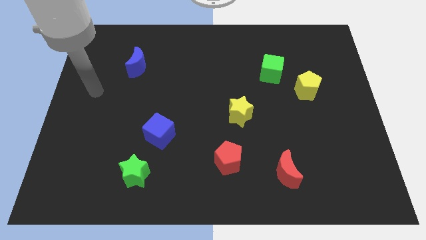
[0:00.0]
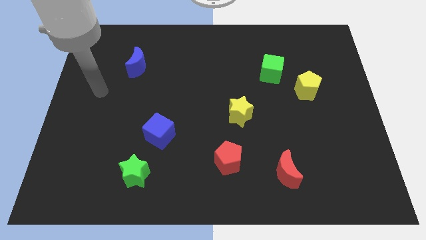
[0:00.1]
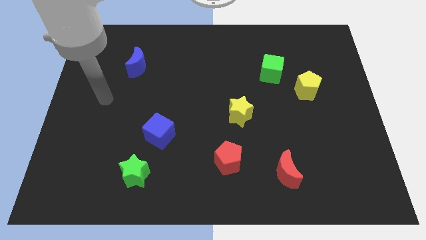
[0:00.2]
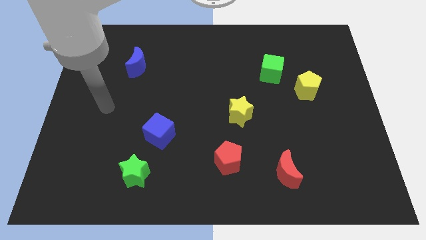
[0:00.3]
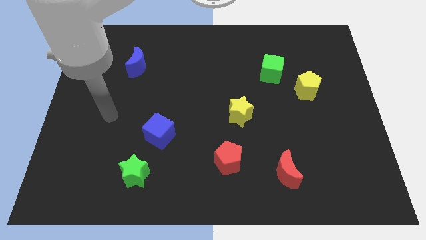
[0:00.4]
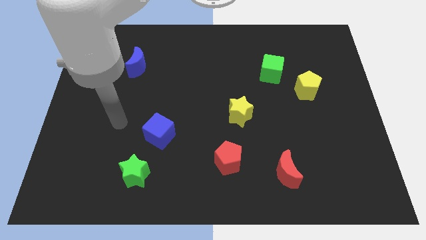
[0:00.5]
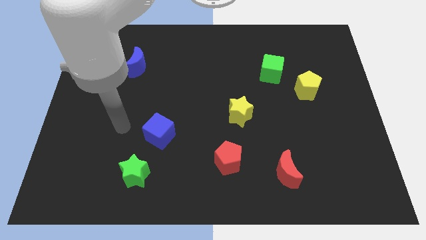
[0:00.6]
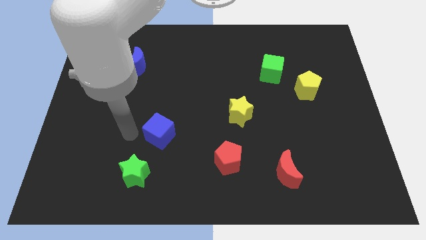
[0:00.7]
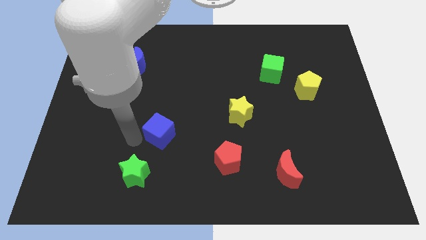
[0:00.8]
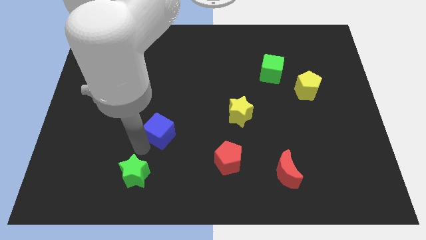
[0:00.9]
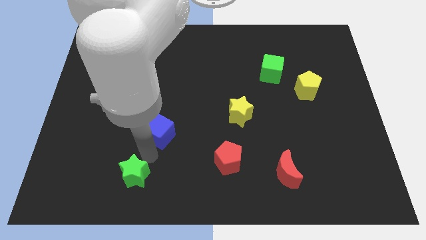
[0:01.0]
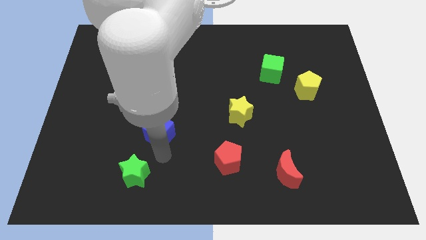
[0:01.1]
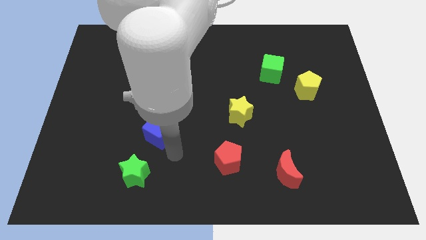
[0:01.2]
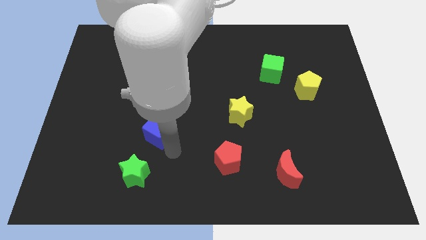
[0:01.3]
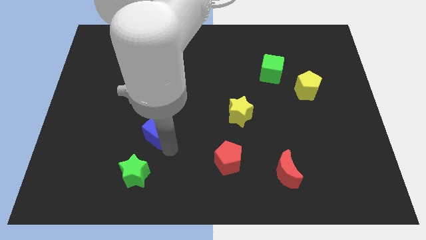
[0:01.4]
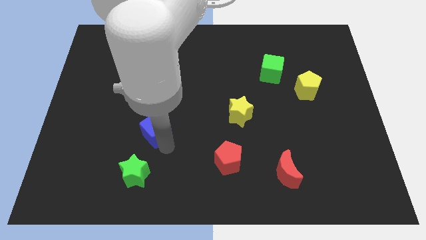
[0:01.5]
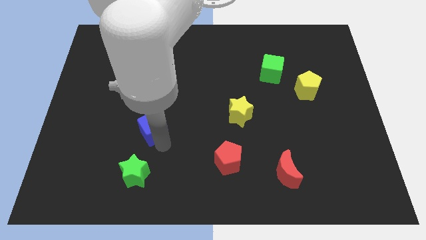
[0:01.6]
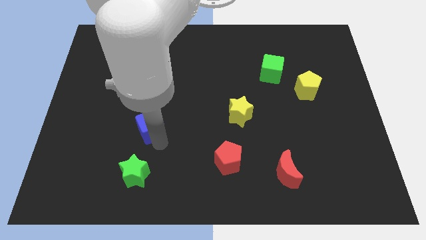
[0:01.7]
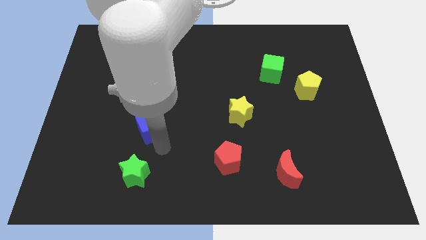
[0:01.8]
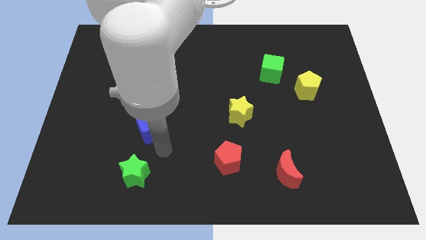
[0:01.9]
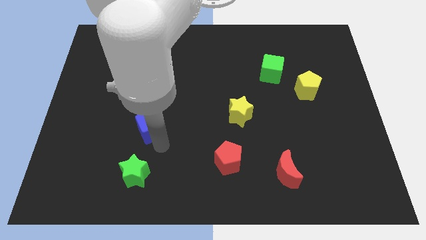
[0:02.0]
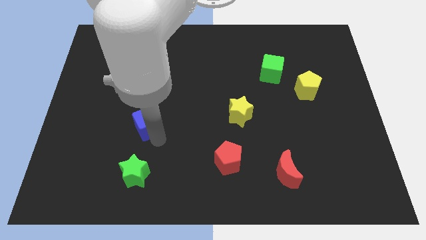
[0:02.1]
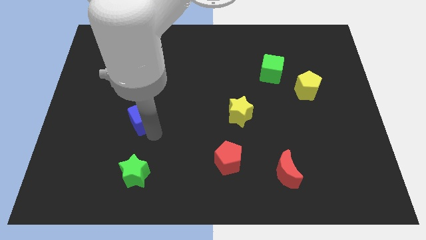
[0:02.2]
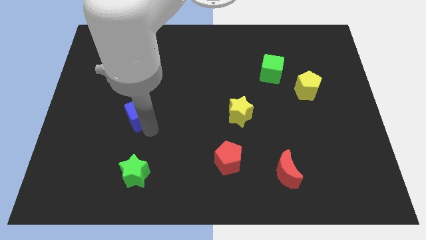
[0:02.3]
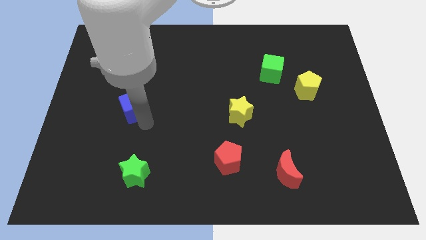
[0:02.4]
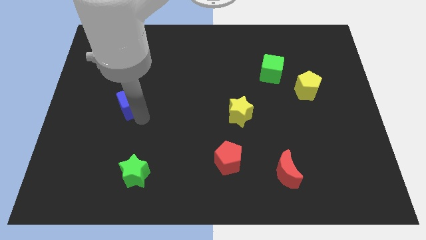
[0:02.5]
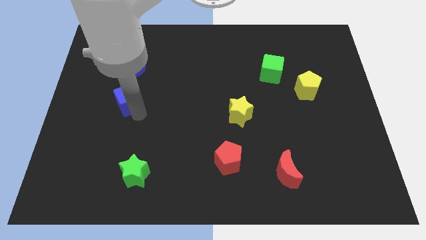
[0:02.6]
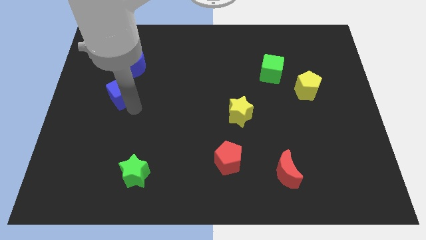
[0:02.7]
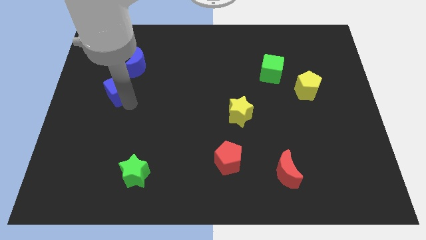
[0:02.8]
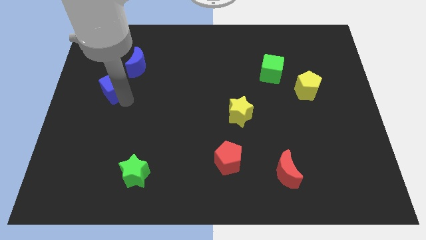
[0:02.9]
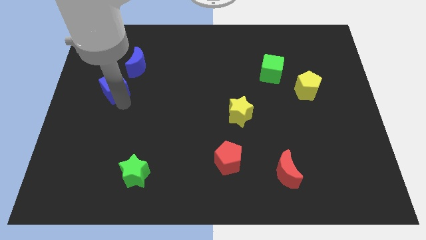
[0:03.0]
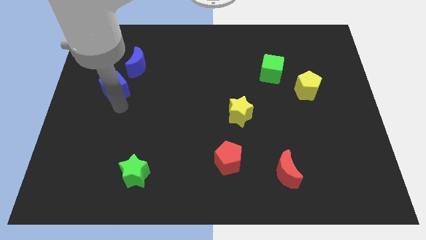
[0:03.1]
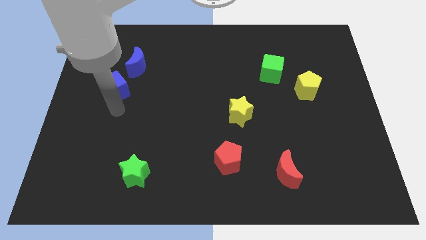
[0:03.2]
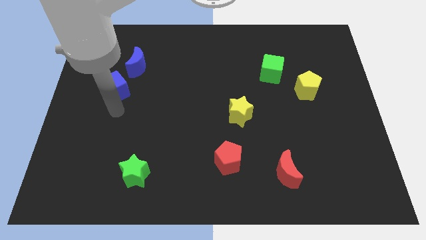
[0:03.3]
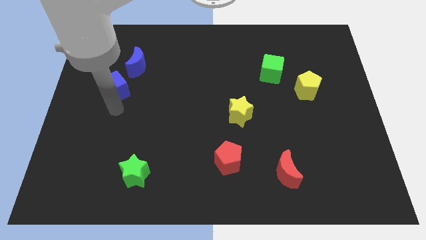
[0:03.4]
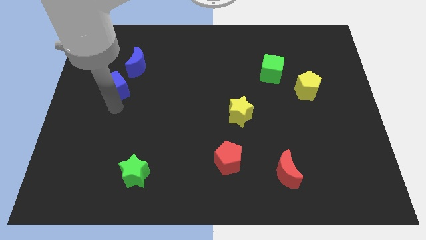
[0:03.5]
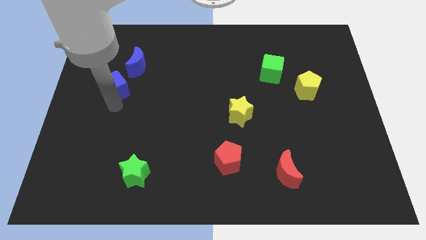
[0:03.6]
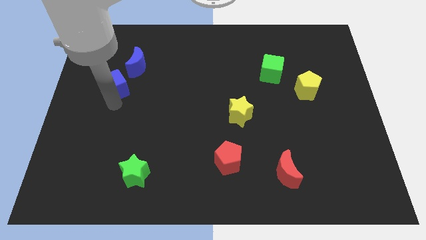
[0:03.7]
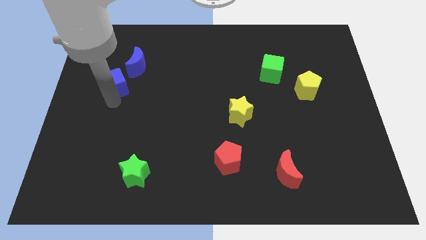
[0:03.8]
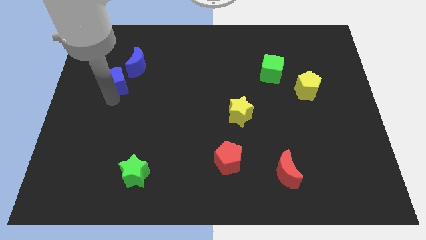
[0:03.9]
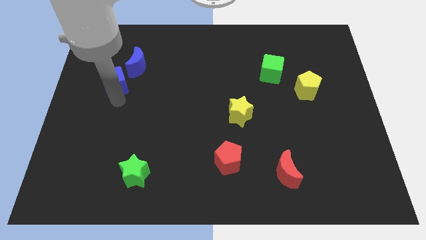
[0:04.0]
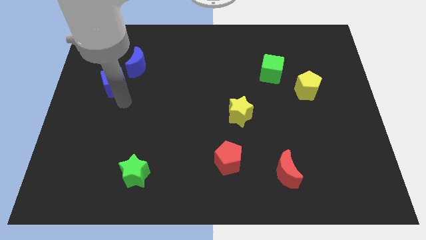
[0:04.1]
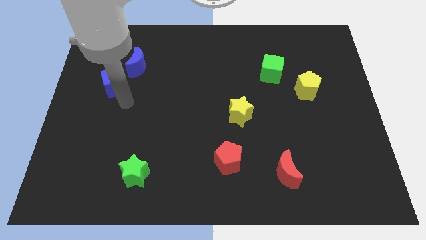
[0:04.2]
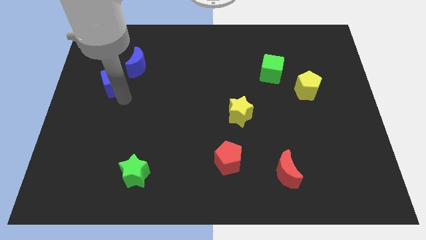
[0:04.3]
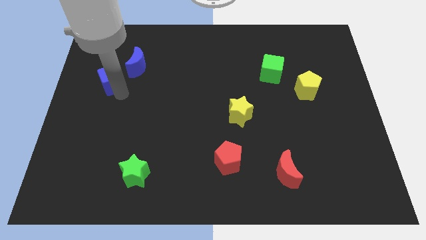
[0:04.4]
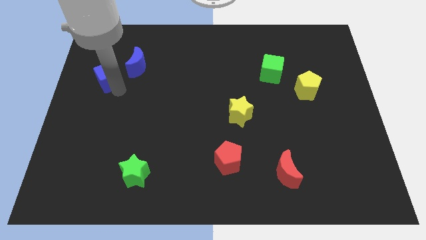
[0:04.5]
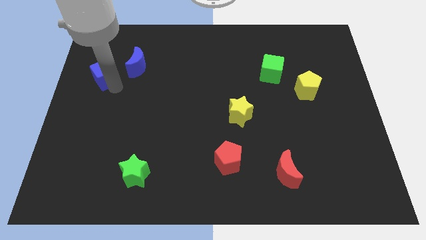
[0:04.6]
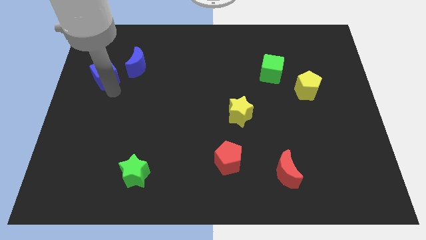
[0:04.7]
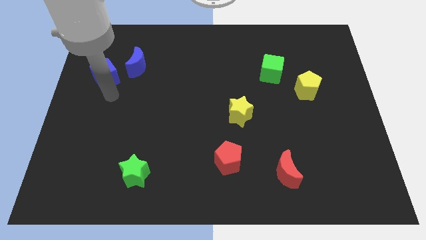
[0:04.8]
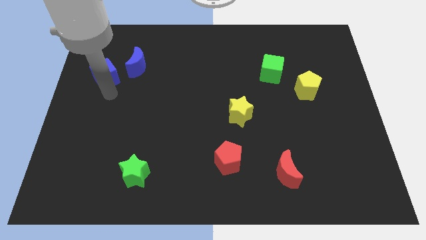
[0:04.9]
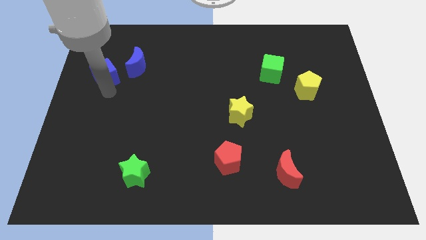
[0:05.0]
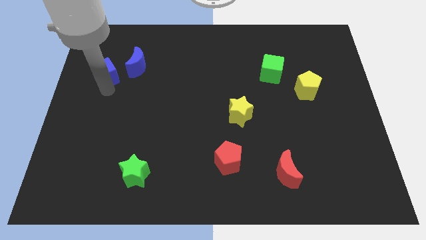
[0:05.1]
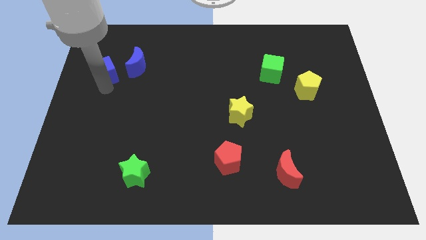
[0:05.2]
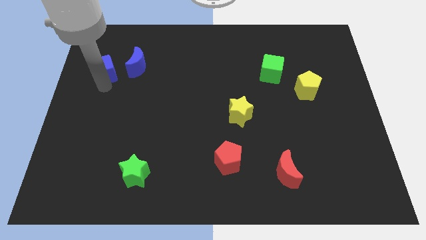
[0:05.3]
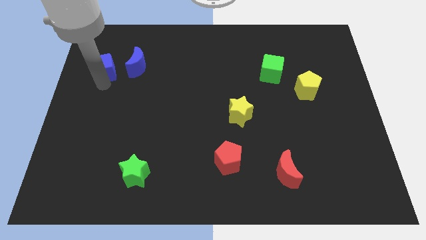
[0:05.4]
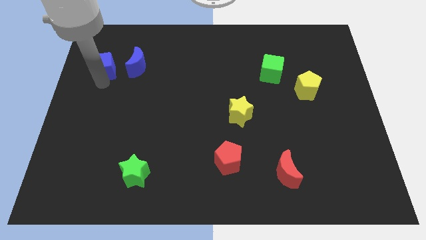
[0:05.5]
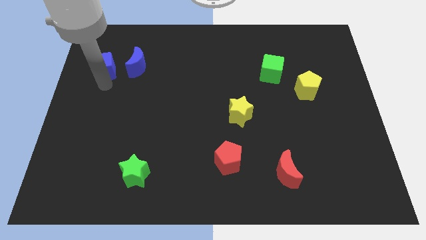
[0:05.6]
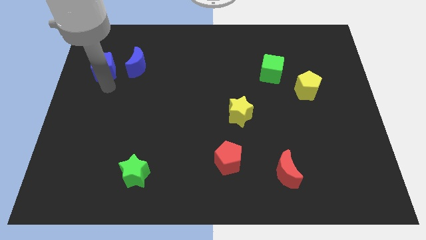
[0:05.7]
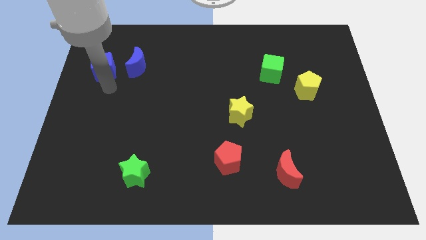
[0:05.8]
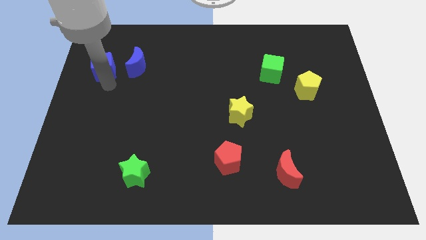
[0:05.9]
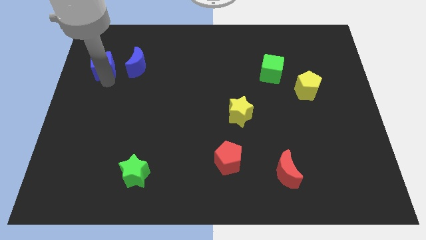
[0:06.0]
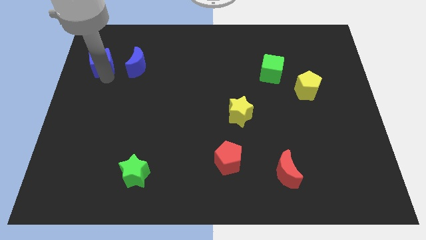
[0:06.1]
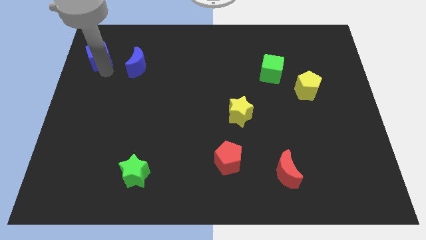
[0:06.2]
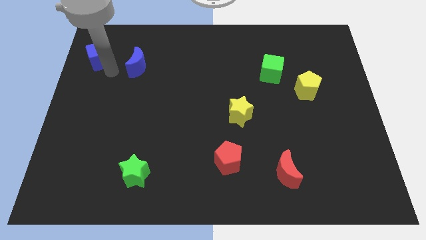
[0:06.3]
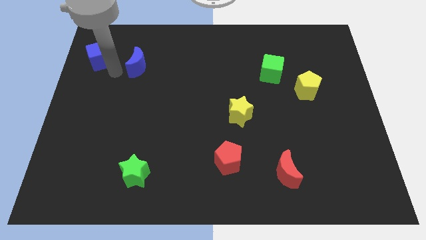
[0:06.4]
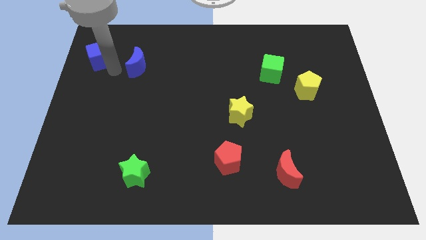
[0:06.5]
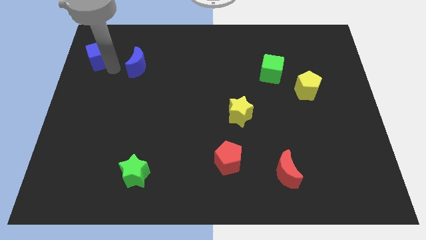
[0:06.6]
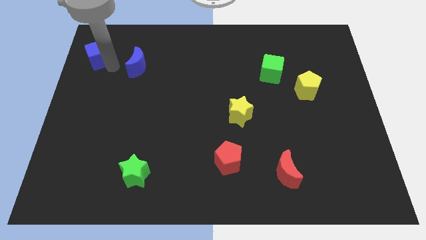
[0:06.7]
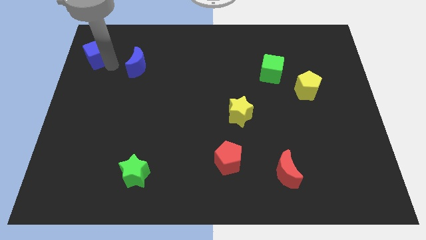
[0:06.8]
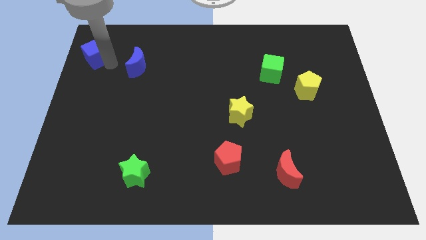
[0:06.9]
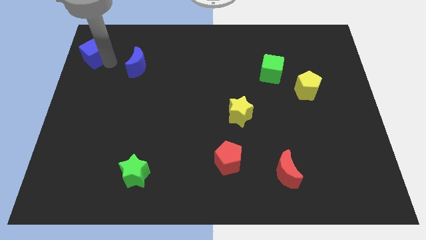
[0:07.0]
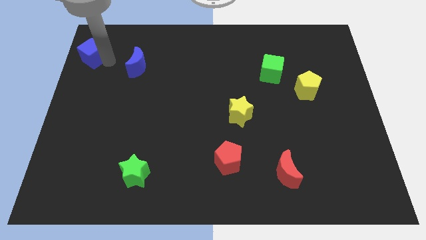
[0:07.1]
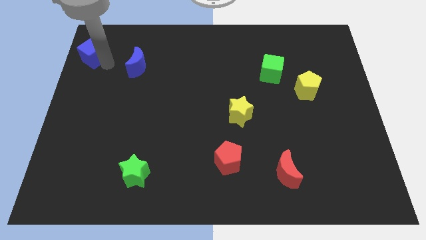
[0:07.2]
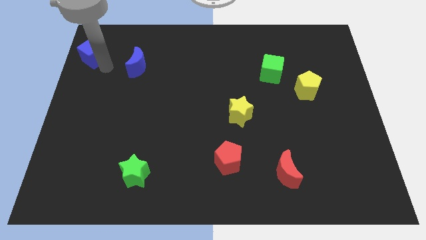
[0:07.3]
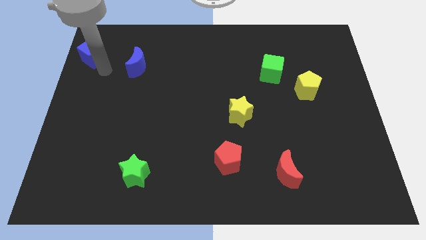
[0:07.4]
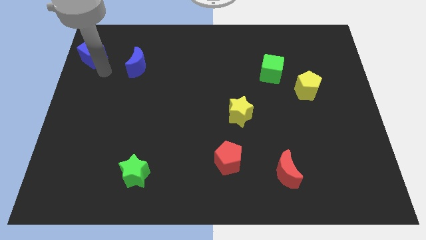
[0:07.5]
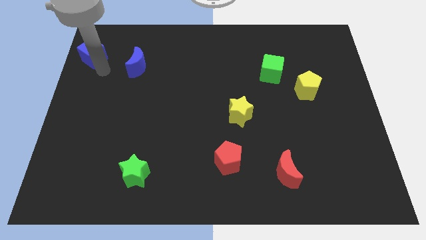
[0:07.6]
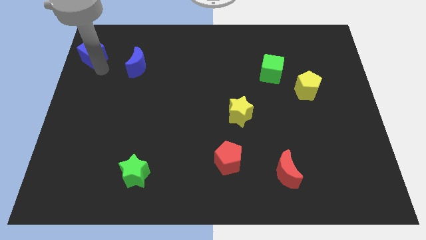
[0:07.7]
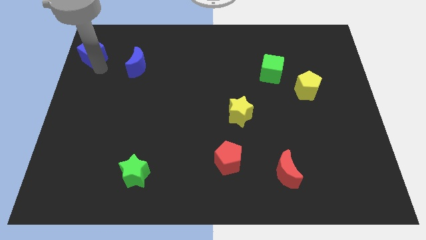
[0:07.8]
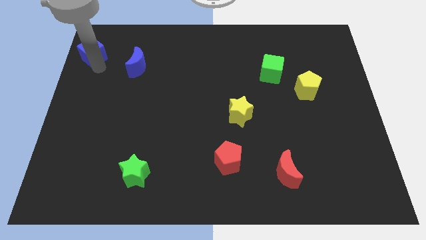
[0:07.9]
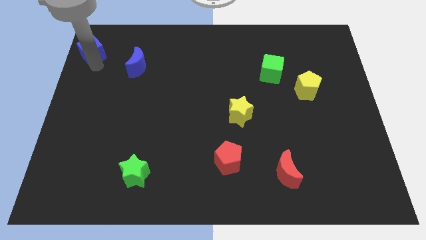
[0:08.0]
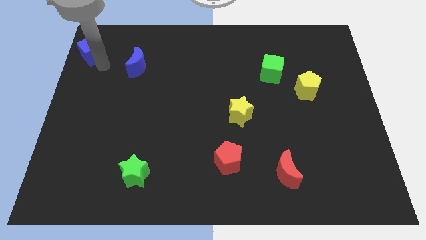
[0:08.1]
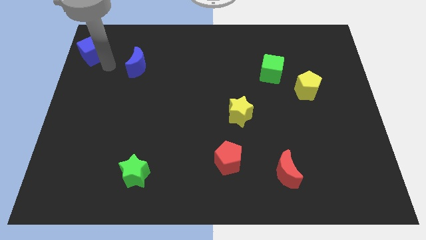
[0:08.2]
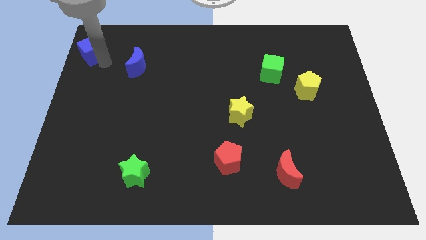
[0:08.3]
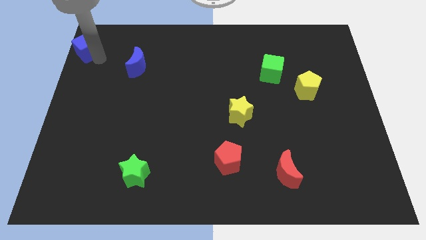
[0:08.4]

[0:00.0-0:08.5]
put the blue cube to the upper left corner
